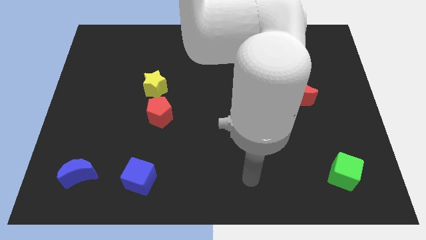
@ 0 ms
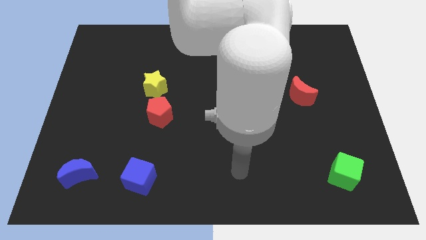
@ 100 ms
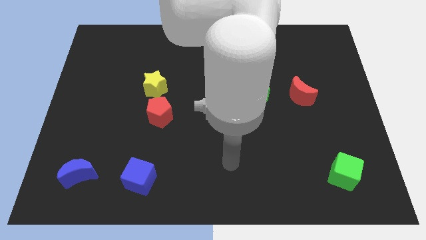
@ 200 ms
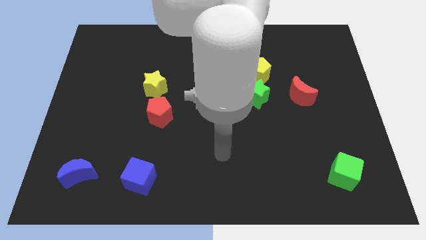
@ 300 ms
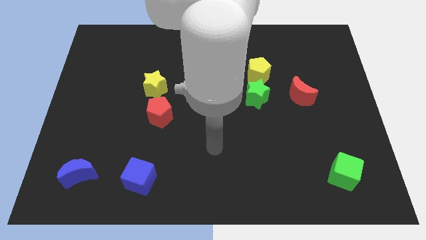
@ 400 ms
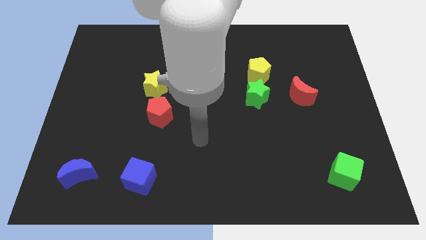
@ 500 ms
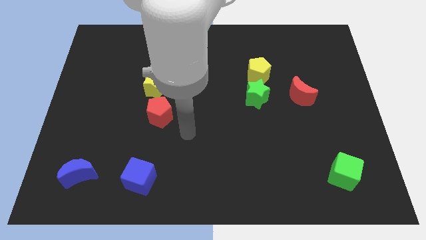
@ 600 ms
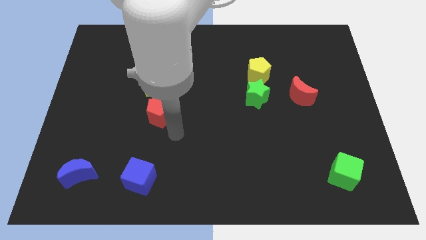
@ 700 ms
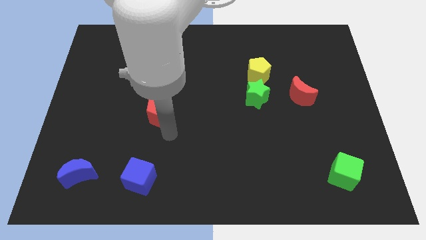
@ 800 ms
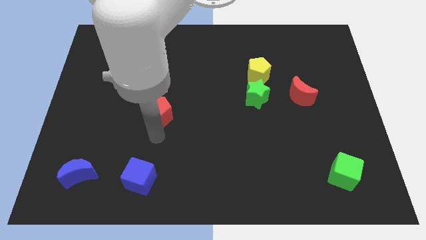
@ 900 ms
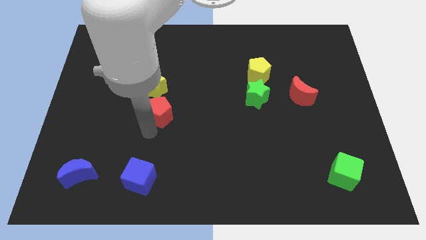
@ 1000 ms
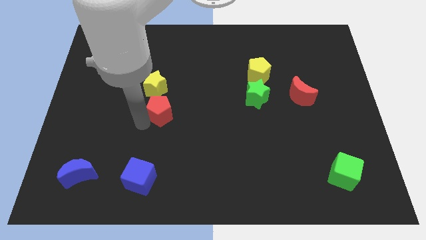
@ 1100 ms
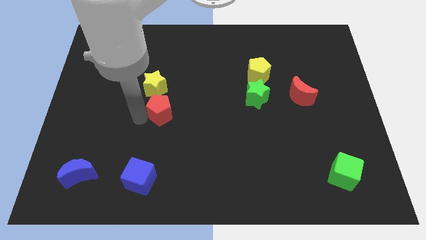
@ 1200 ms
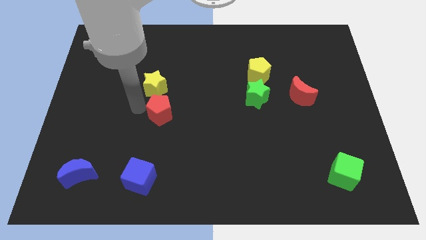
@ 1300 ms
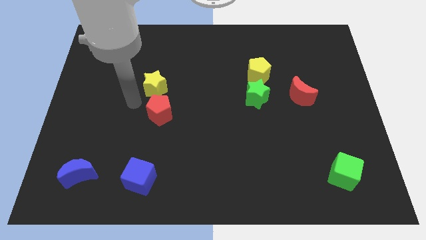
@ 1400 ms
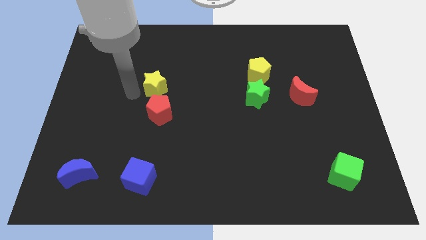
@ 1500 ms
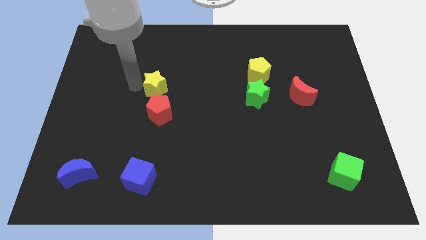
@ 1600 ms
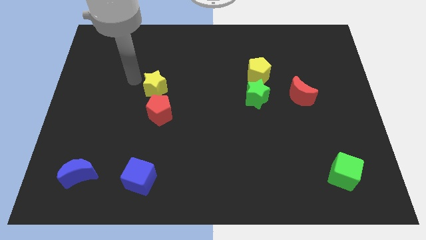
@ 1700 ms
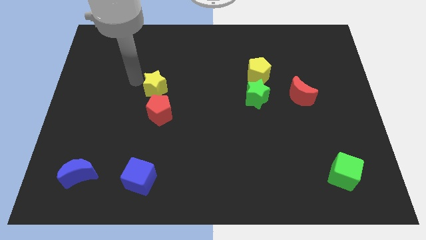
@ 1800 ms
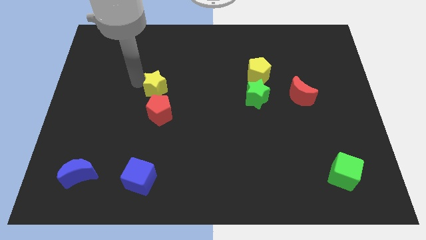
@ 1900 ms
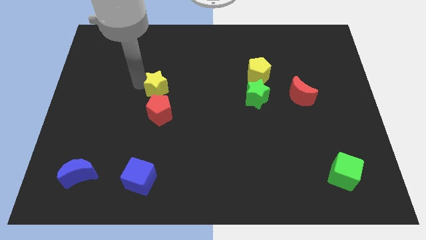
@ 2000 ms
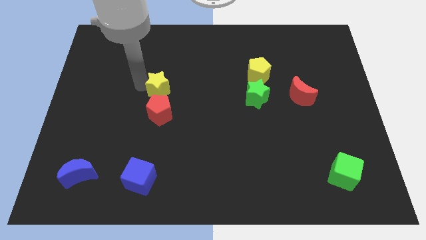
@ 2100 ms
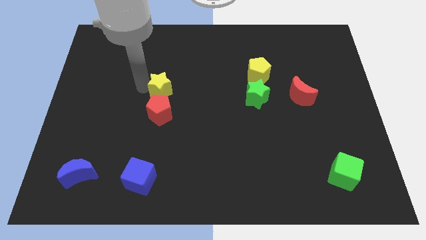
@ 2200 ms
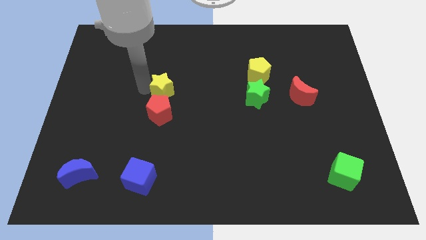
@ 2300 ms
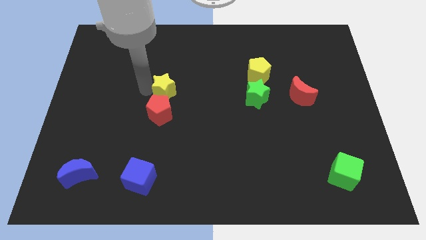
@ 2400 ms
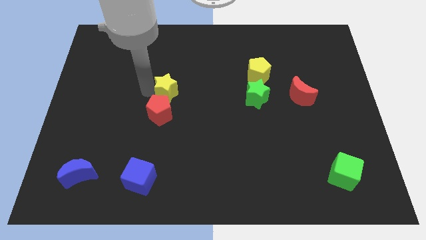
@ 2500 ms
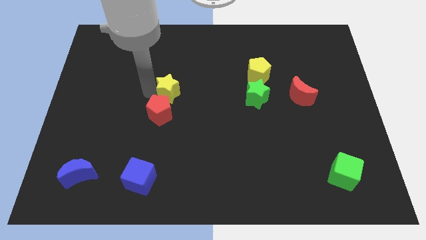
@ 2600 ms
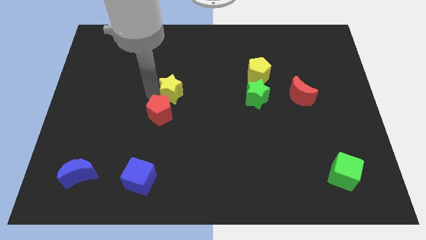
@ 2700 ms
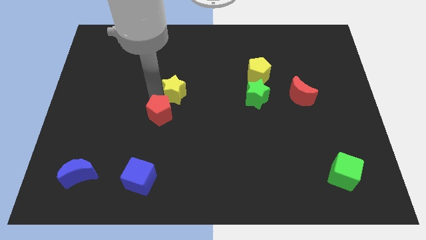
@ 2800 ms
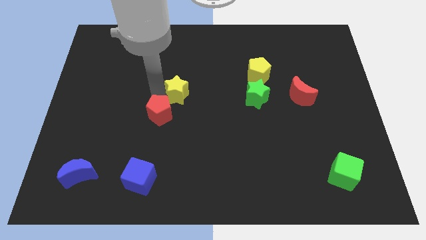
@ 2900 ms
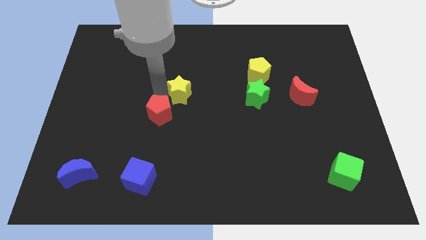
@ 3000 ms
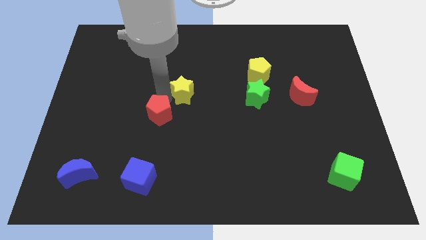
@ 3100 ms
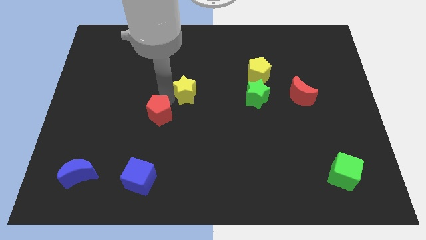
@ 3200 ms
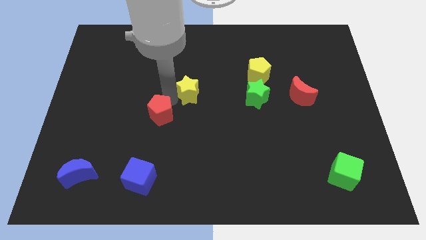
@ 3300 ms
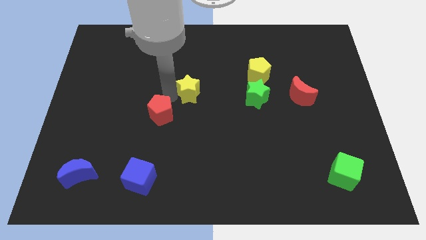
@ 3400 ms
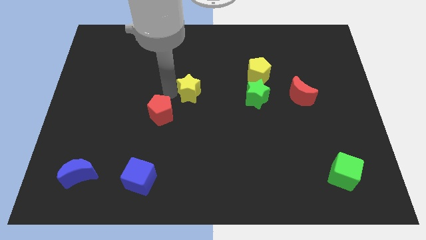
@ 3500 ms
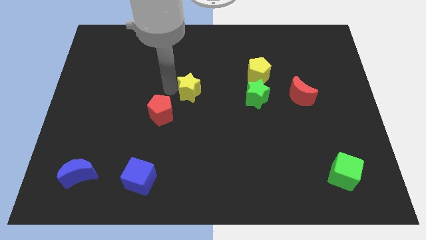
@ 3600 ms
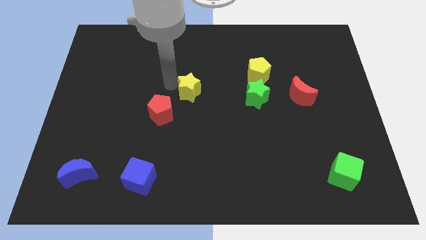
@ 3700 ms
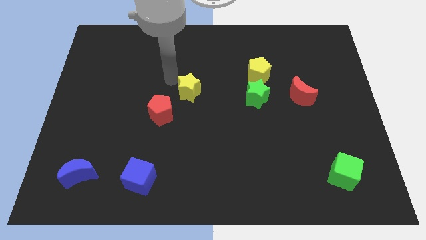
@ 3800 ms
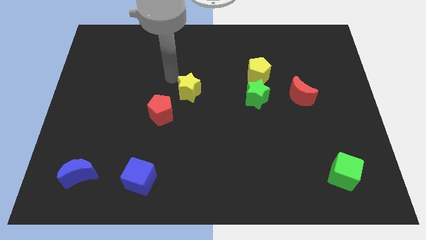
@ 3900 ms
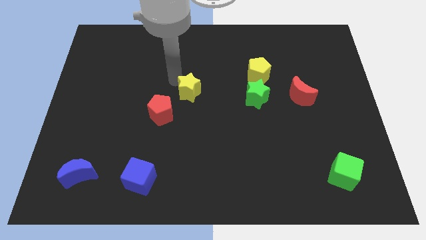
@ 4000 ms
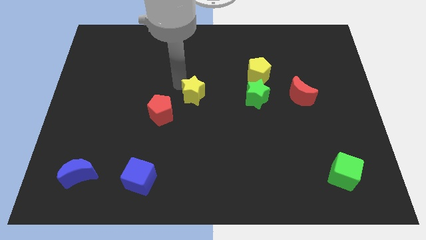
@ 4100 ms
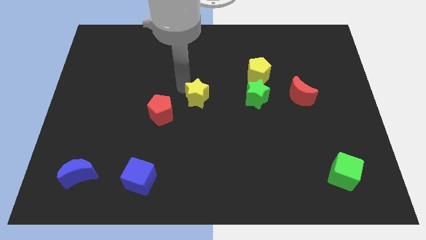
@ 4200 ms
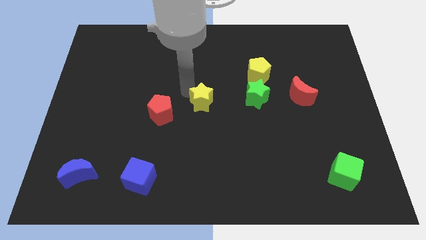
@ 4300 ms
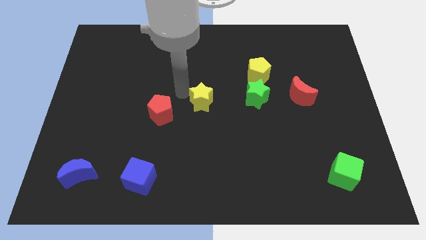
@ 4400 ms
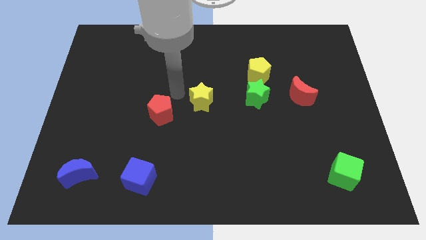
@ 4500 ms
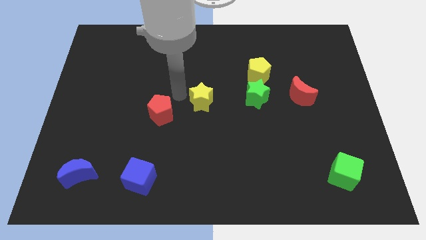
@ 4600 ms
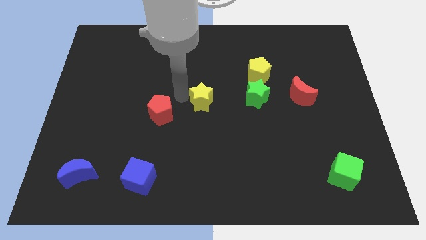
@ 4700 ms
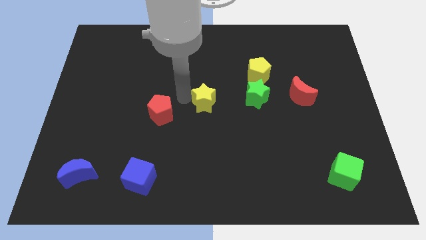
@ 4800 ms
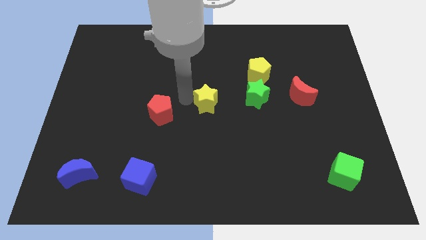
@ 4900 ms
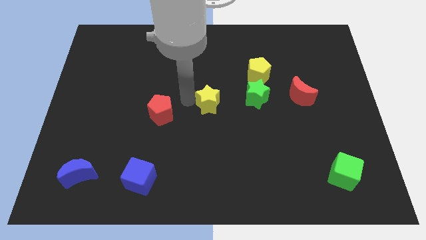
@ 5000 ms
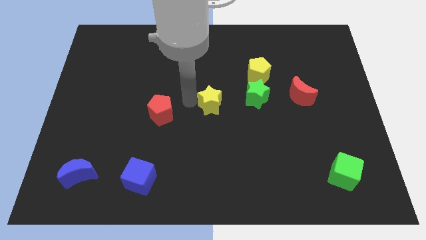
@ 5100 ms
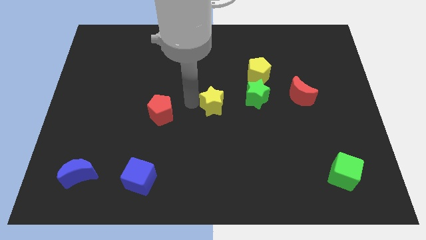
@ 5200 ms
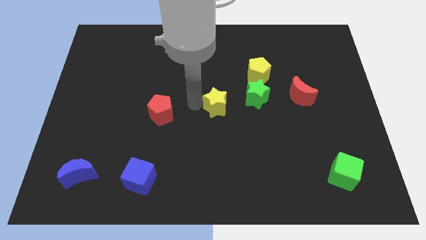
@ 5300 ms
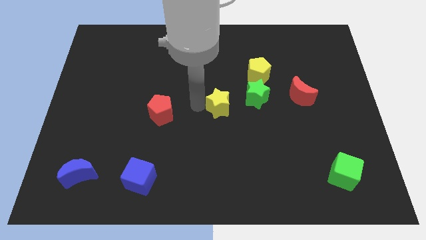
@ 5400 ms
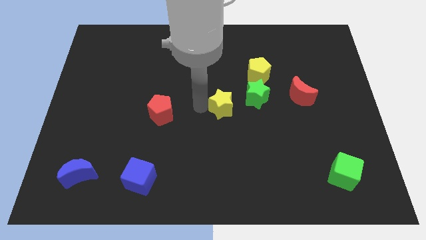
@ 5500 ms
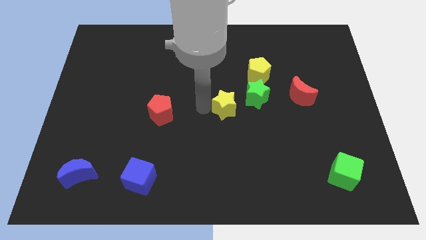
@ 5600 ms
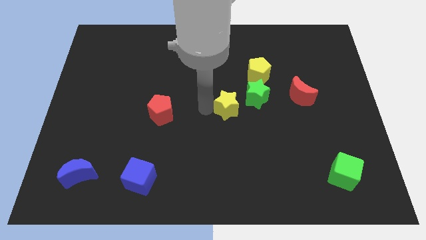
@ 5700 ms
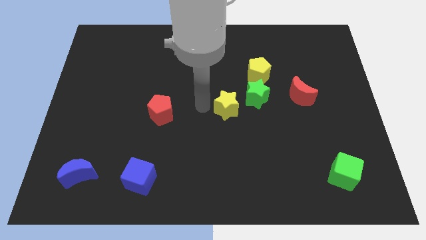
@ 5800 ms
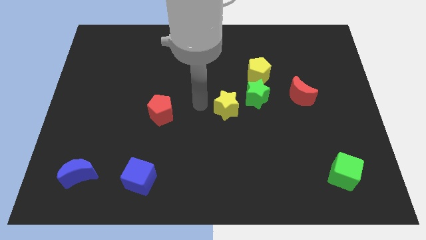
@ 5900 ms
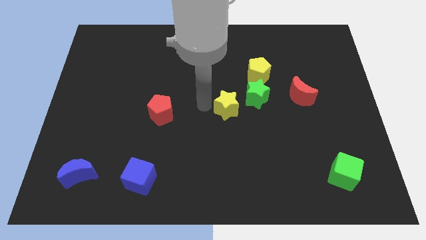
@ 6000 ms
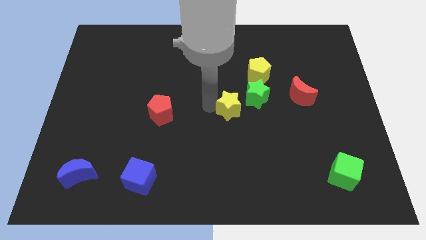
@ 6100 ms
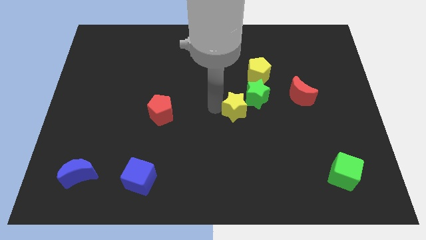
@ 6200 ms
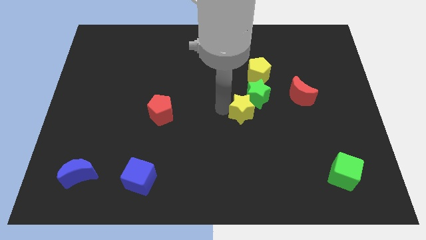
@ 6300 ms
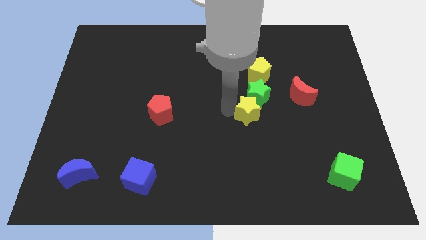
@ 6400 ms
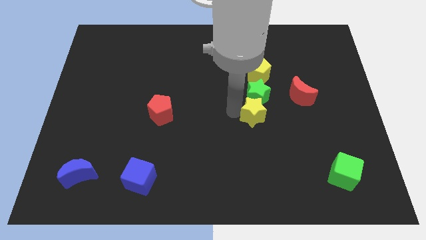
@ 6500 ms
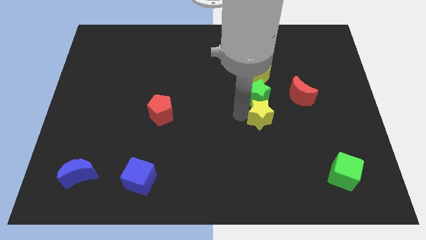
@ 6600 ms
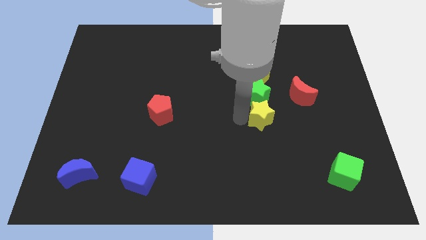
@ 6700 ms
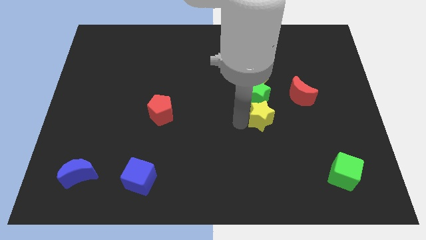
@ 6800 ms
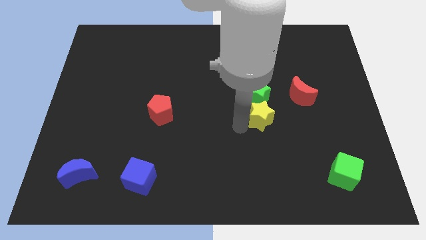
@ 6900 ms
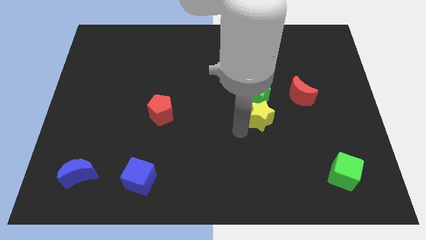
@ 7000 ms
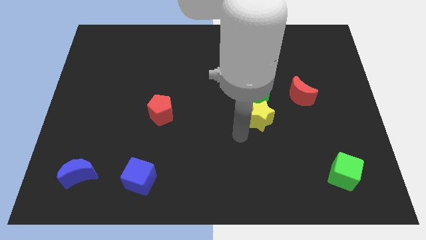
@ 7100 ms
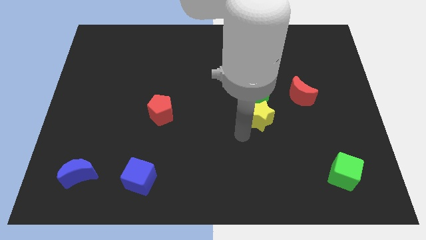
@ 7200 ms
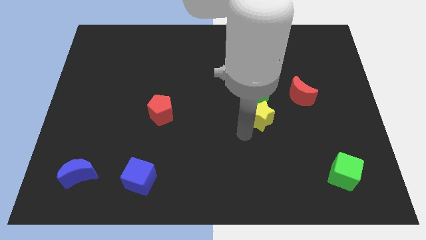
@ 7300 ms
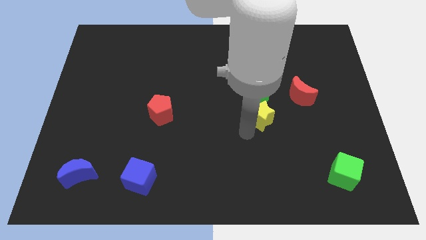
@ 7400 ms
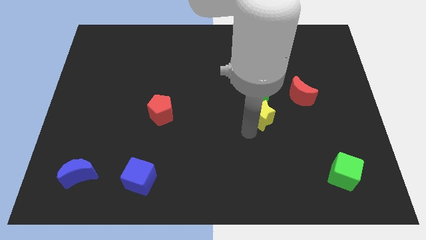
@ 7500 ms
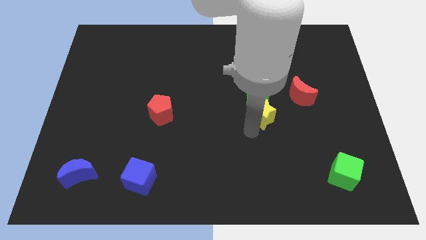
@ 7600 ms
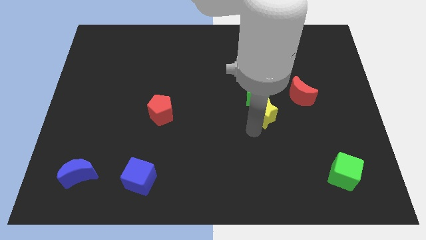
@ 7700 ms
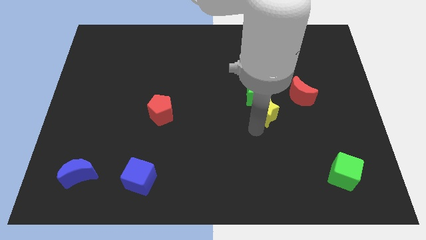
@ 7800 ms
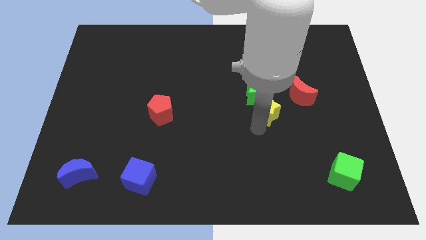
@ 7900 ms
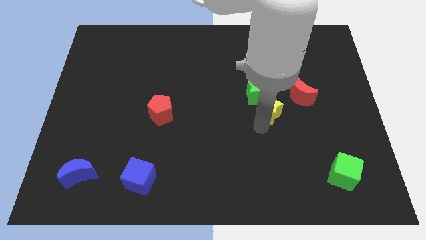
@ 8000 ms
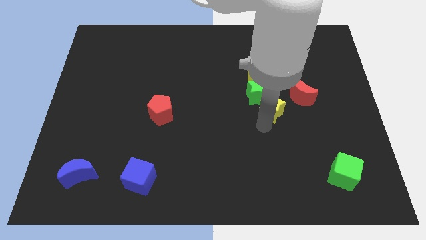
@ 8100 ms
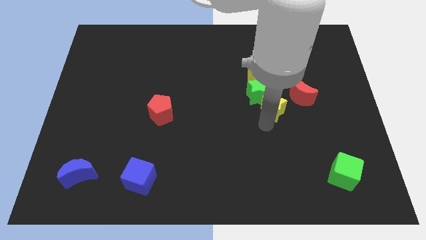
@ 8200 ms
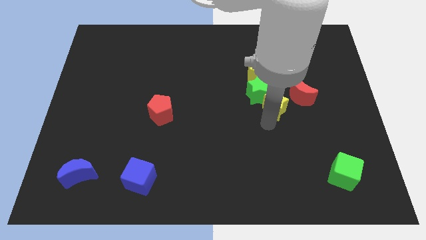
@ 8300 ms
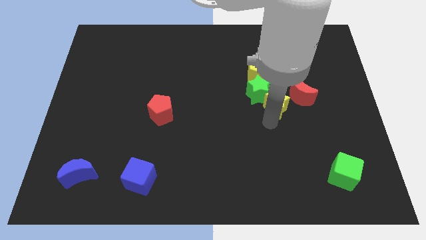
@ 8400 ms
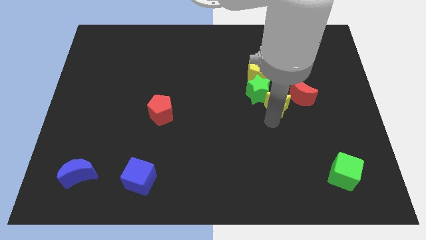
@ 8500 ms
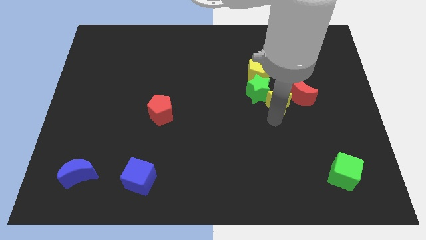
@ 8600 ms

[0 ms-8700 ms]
put the yellow star next to the red moon
